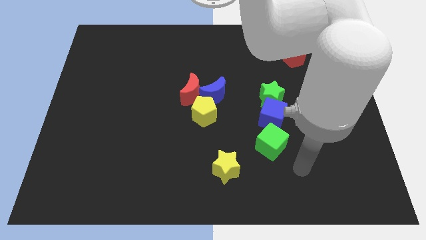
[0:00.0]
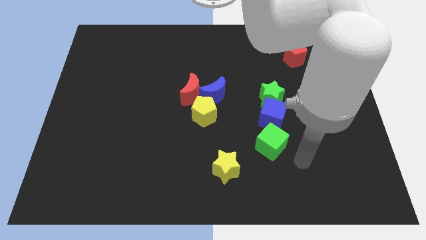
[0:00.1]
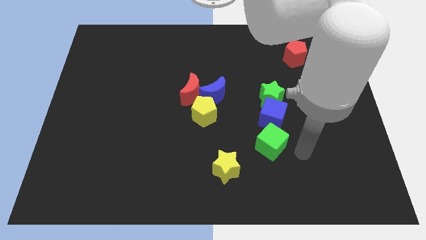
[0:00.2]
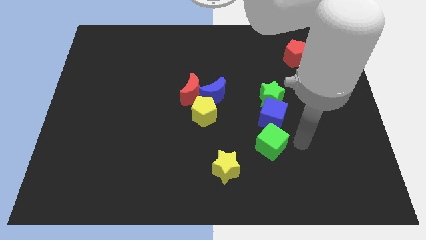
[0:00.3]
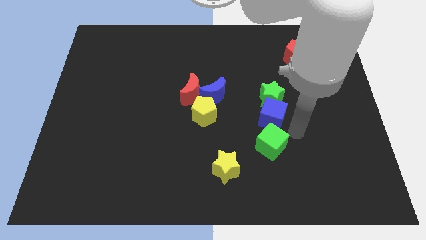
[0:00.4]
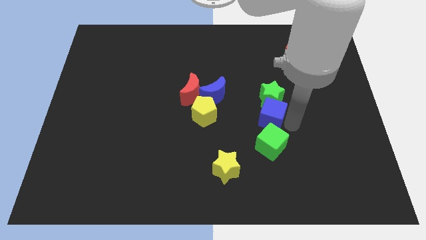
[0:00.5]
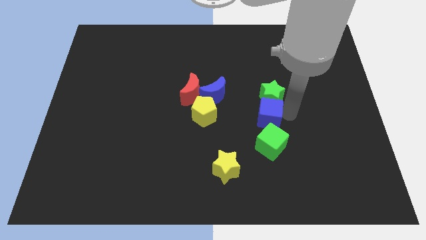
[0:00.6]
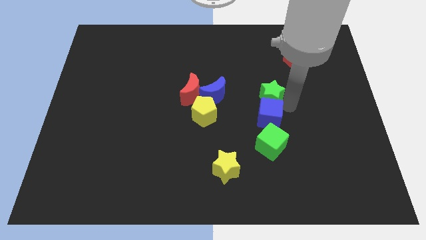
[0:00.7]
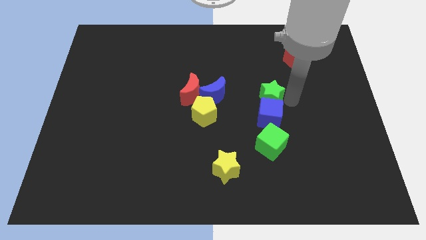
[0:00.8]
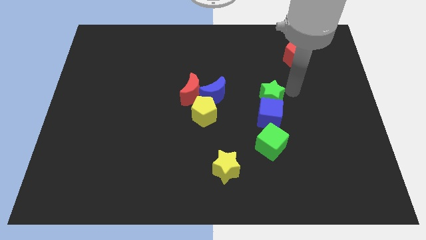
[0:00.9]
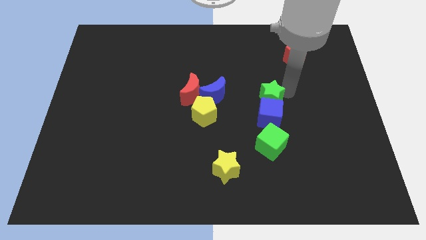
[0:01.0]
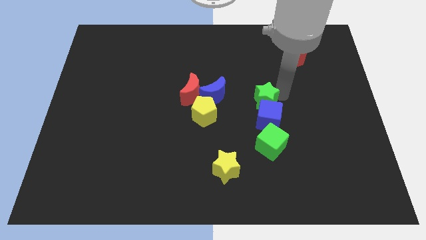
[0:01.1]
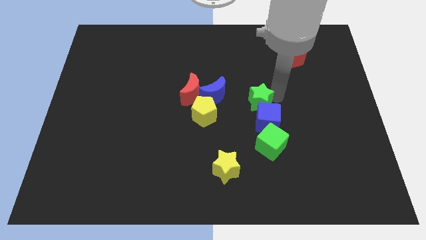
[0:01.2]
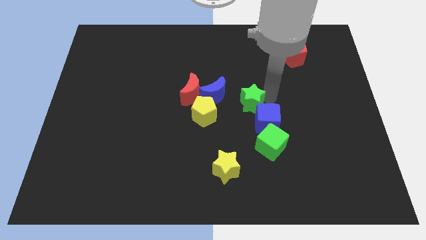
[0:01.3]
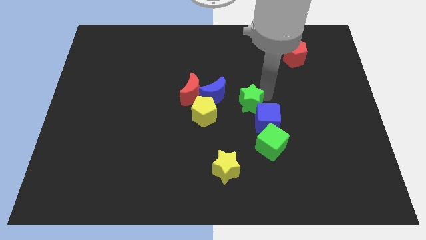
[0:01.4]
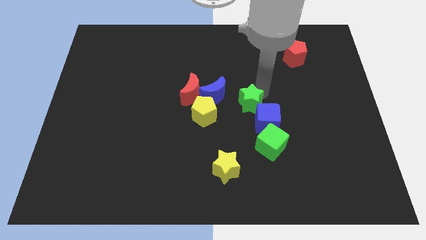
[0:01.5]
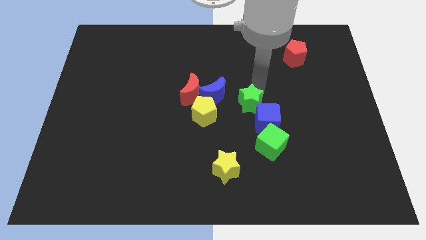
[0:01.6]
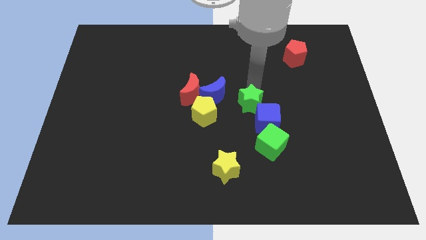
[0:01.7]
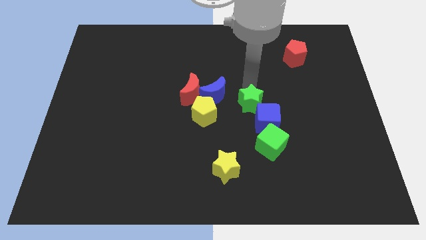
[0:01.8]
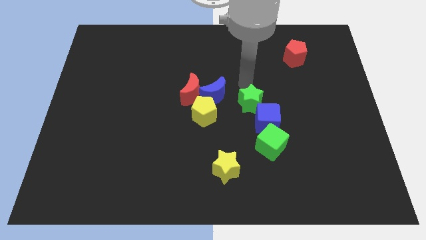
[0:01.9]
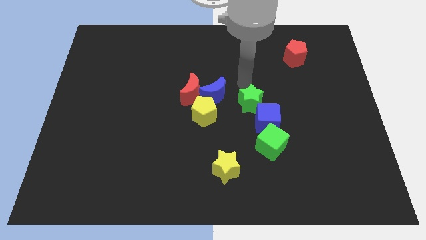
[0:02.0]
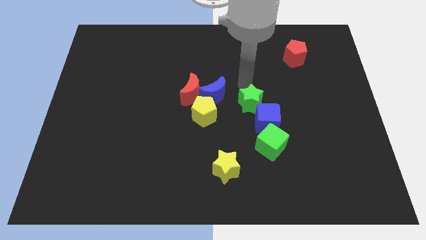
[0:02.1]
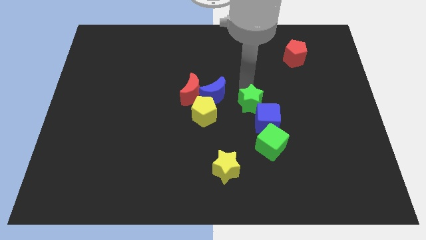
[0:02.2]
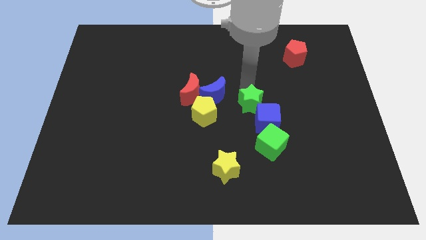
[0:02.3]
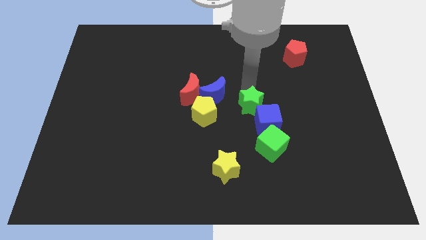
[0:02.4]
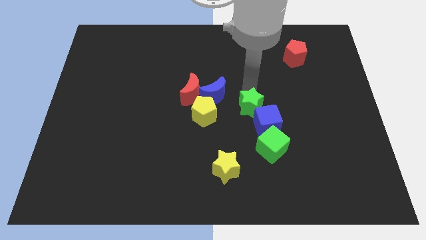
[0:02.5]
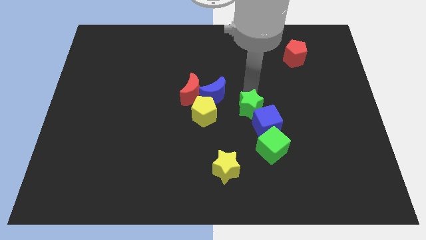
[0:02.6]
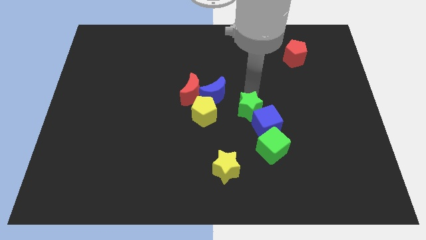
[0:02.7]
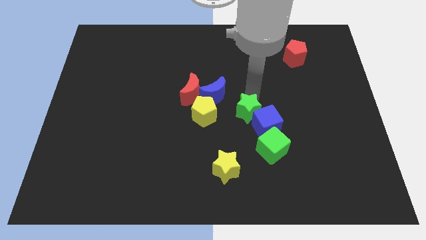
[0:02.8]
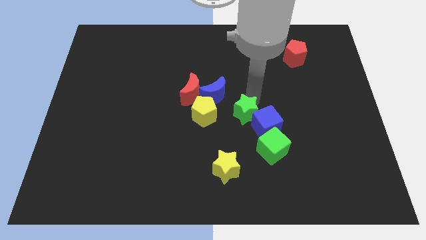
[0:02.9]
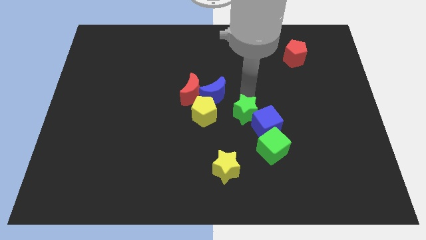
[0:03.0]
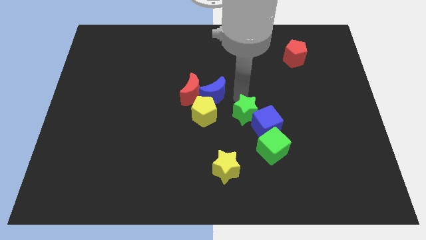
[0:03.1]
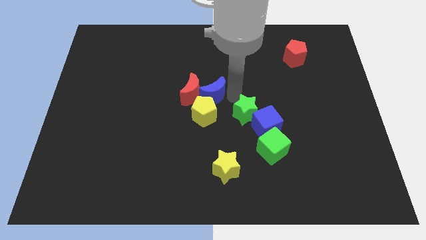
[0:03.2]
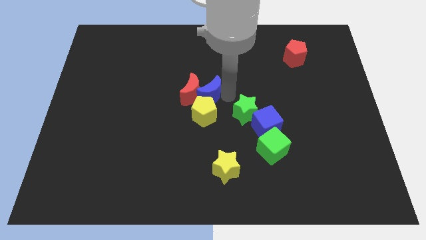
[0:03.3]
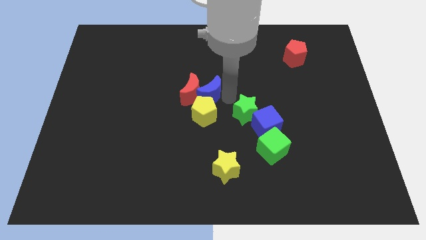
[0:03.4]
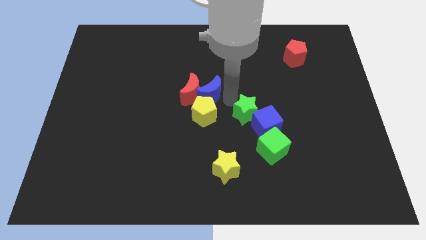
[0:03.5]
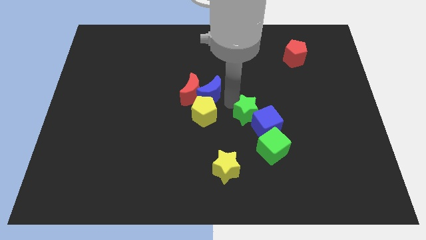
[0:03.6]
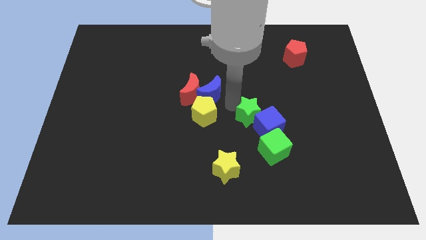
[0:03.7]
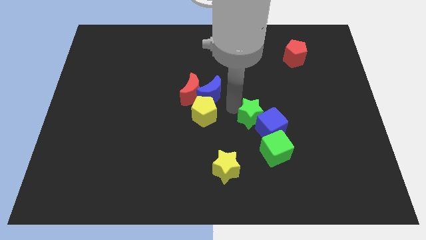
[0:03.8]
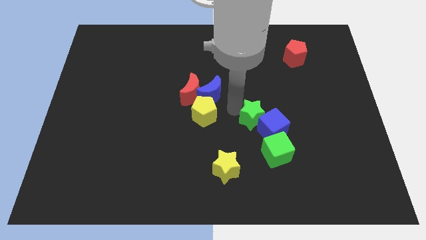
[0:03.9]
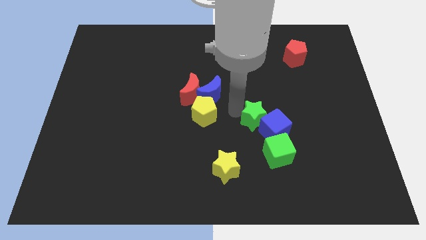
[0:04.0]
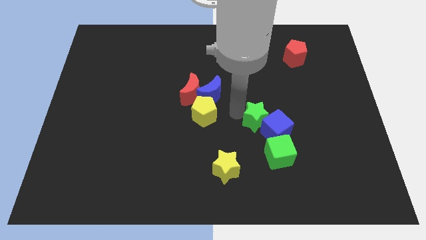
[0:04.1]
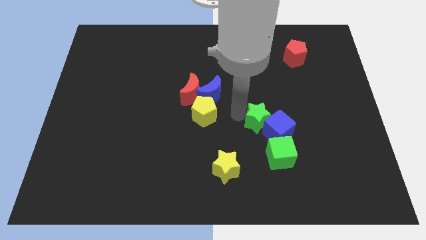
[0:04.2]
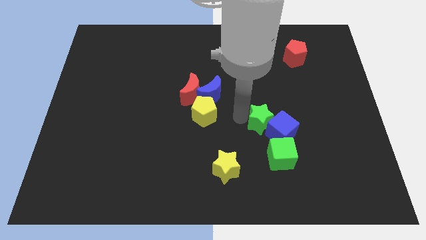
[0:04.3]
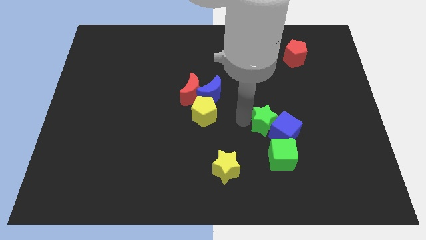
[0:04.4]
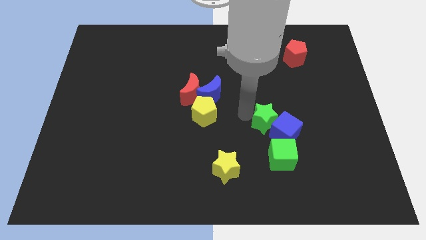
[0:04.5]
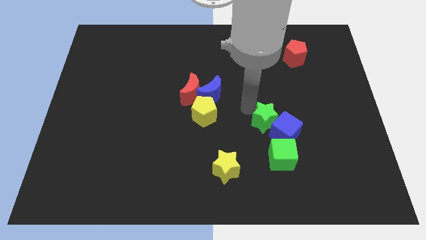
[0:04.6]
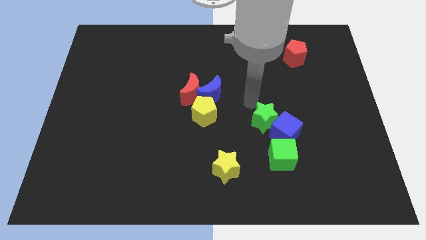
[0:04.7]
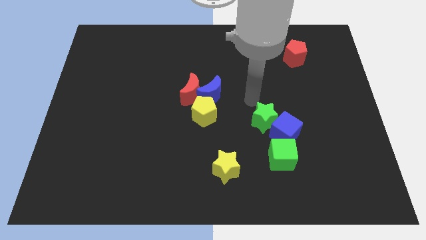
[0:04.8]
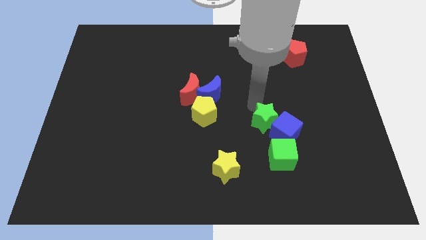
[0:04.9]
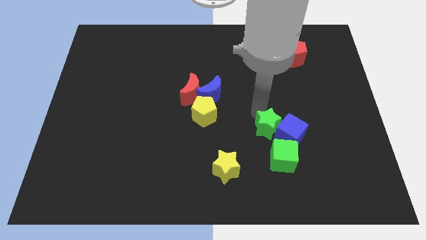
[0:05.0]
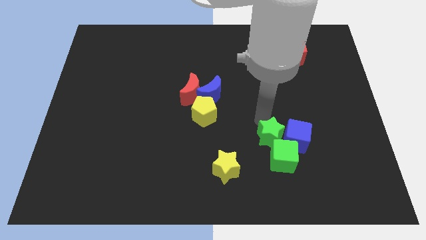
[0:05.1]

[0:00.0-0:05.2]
move the green star towards the green cube

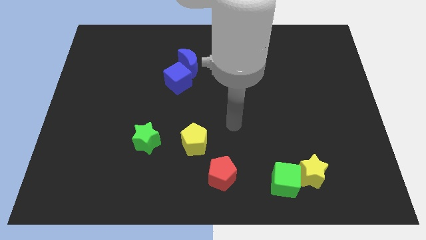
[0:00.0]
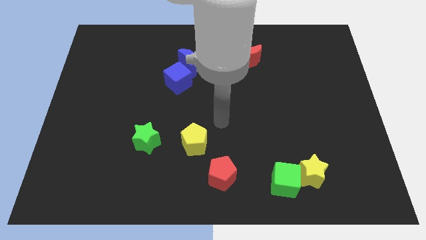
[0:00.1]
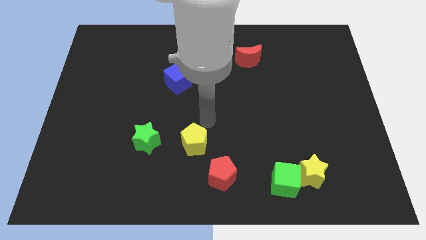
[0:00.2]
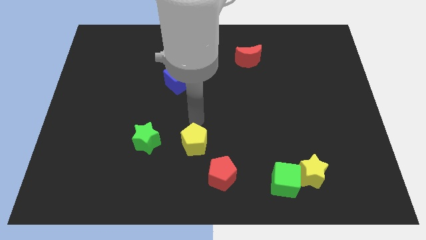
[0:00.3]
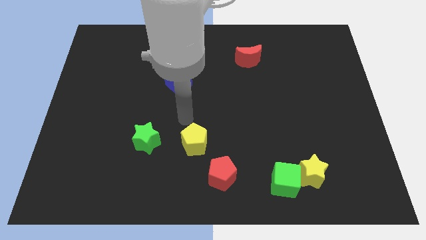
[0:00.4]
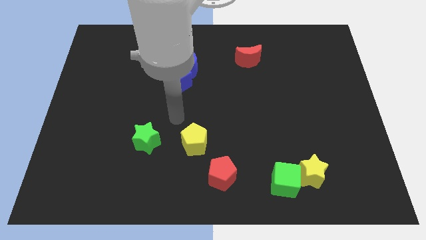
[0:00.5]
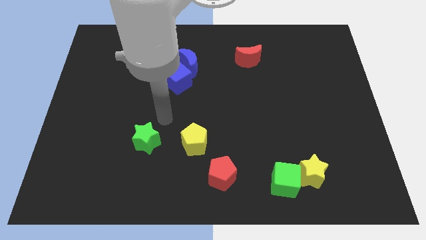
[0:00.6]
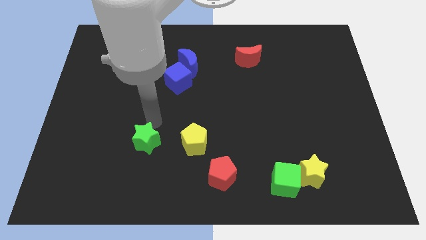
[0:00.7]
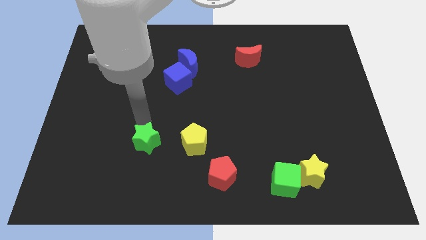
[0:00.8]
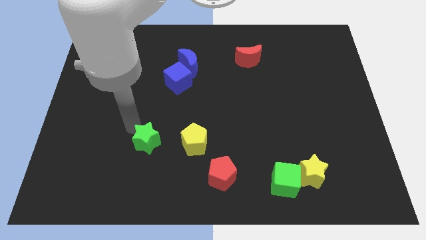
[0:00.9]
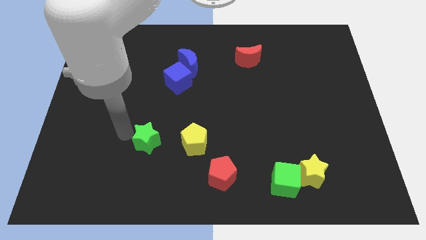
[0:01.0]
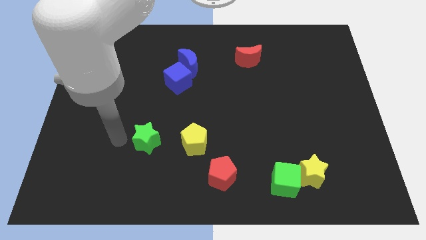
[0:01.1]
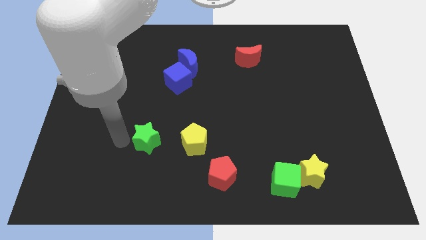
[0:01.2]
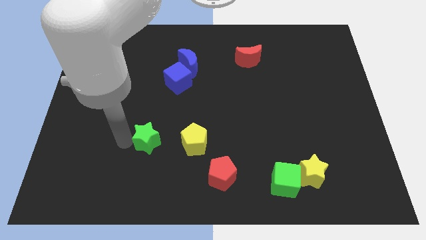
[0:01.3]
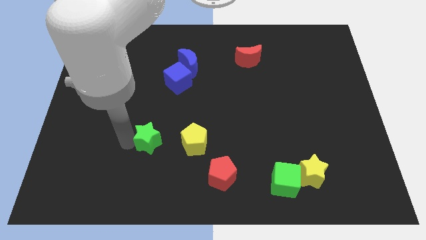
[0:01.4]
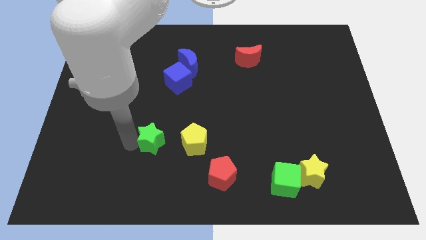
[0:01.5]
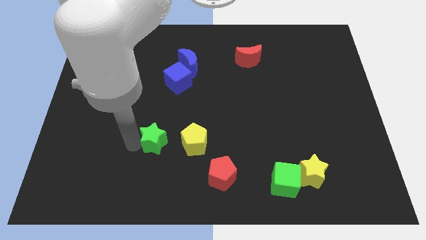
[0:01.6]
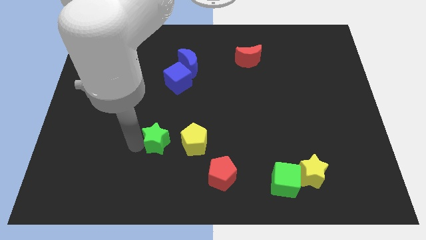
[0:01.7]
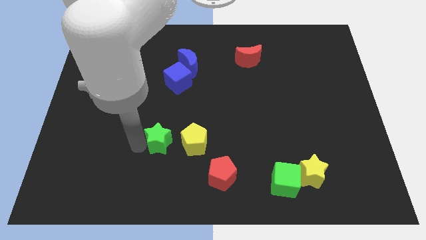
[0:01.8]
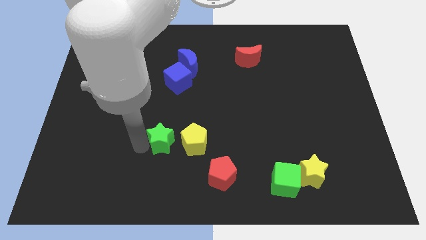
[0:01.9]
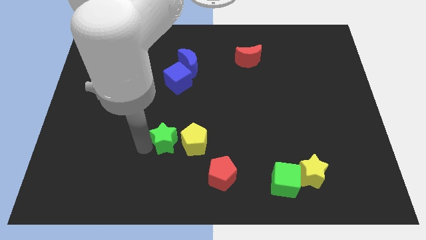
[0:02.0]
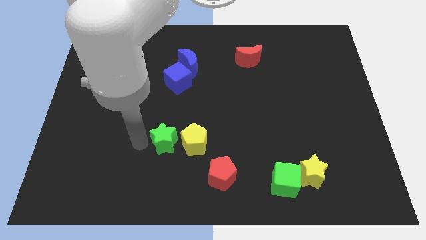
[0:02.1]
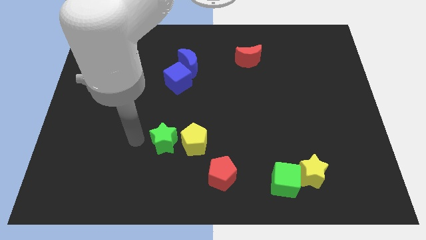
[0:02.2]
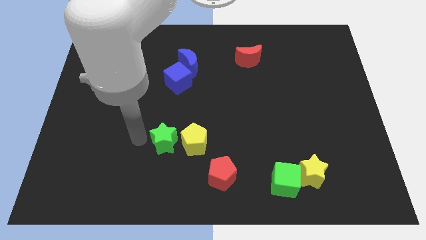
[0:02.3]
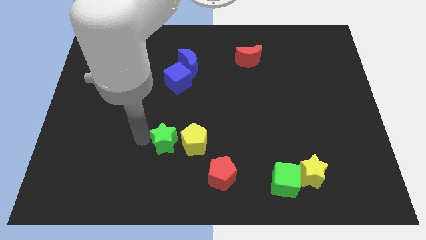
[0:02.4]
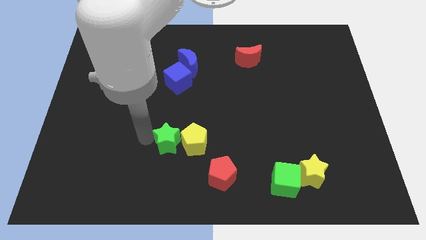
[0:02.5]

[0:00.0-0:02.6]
put the green star to the yellow pentagon
